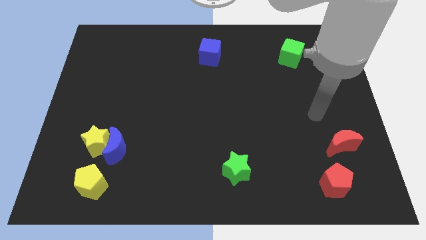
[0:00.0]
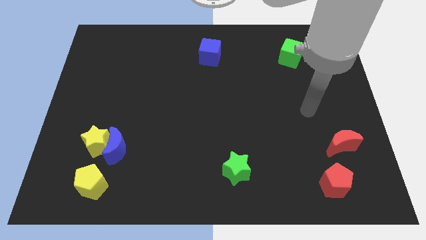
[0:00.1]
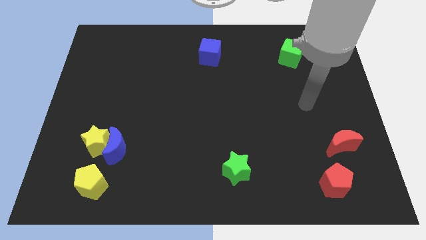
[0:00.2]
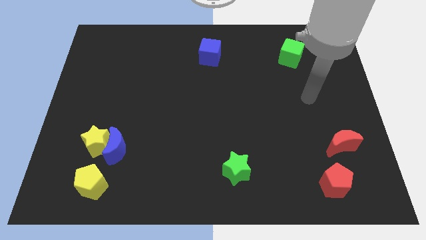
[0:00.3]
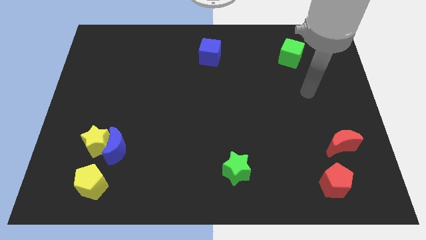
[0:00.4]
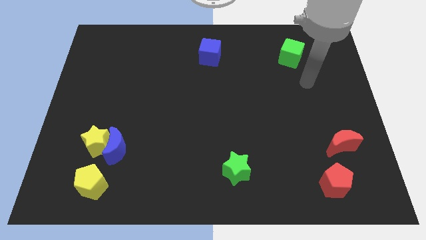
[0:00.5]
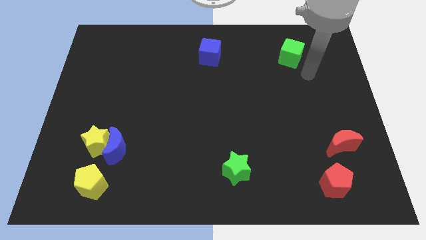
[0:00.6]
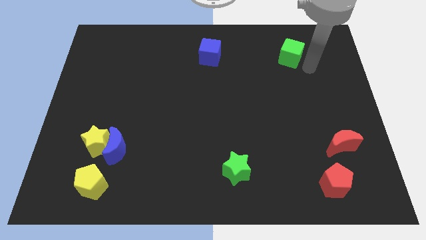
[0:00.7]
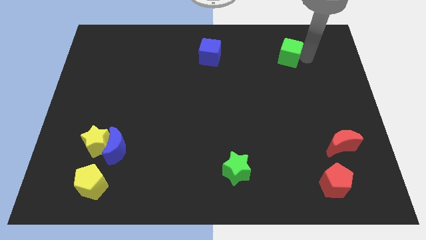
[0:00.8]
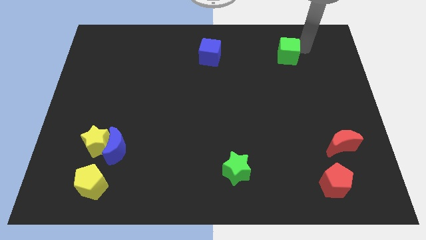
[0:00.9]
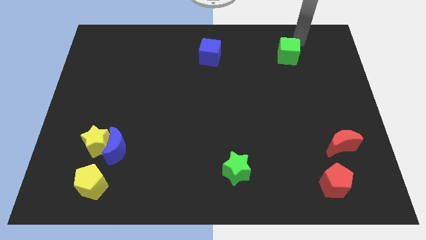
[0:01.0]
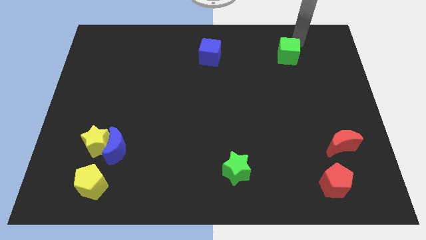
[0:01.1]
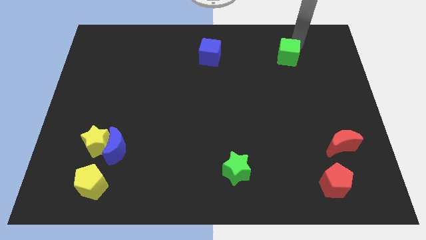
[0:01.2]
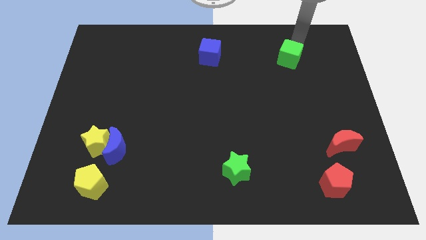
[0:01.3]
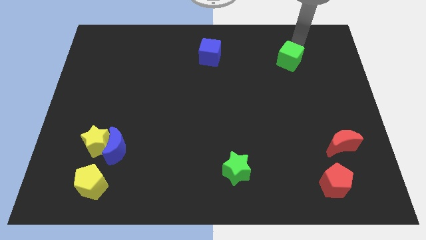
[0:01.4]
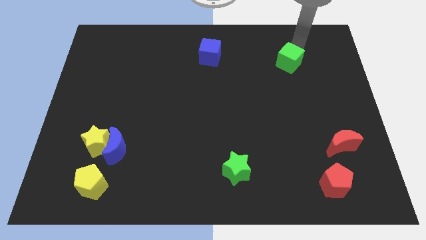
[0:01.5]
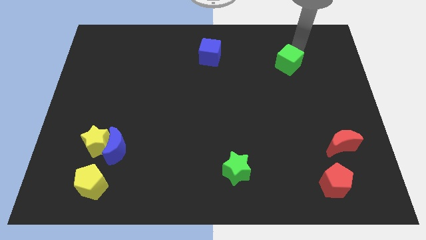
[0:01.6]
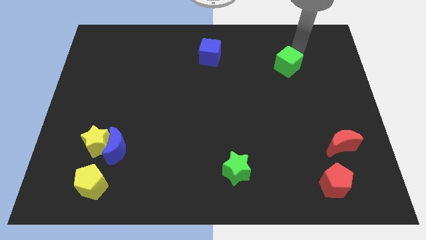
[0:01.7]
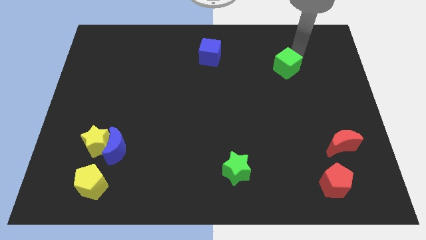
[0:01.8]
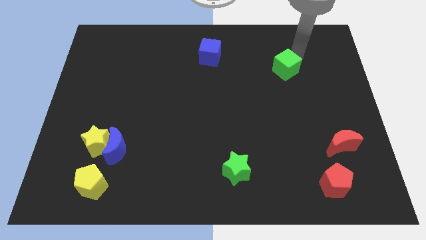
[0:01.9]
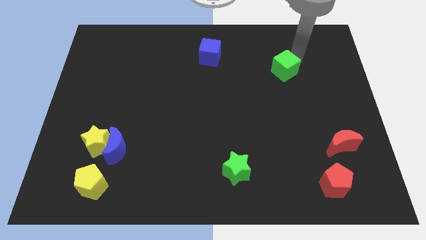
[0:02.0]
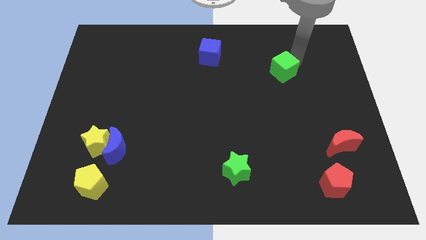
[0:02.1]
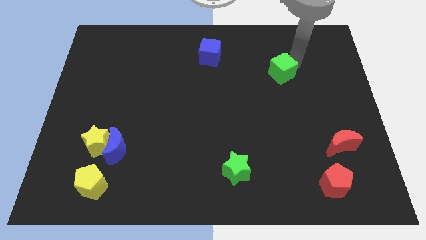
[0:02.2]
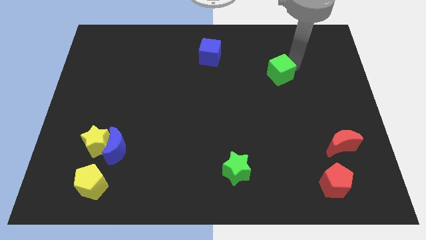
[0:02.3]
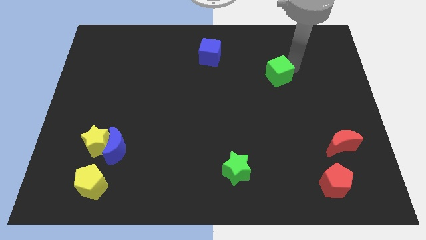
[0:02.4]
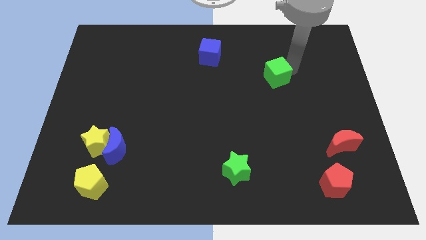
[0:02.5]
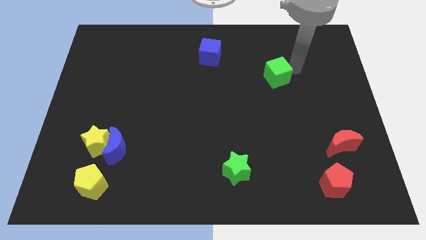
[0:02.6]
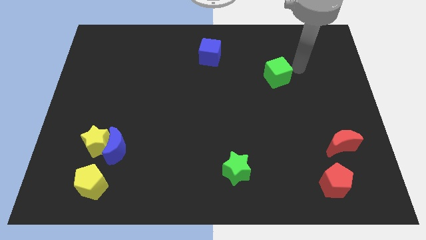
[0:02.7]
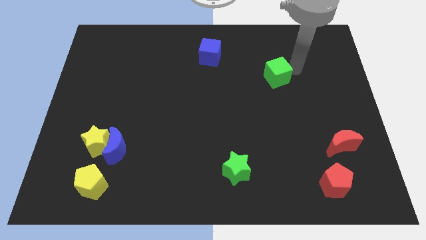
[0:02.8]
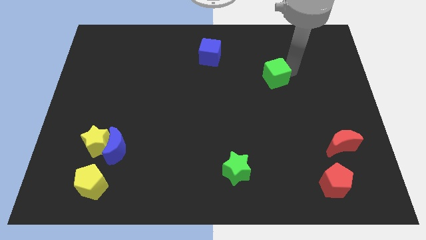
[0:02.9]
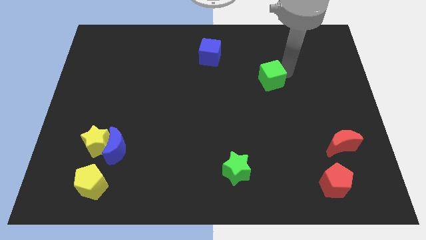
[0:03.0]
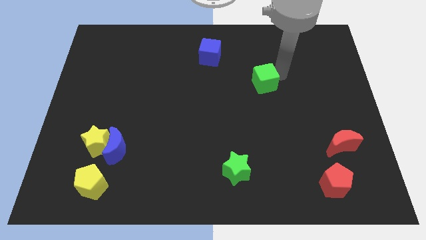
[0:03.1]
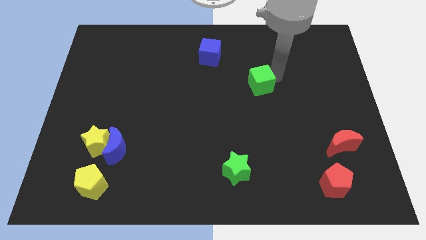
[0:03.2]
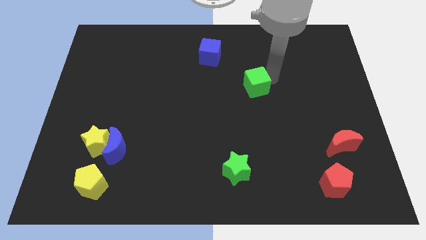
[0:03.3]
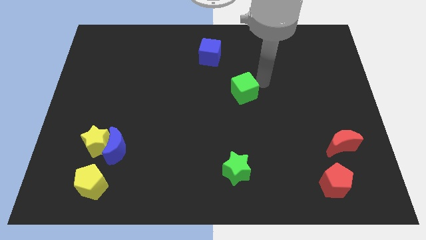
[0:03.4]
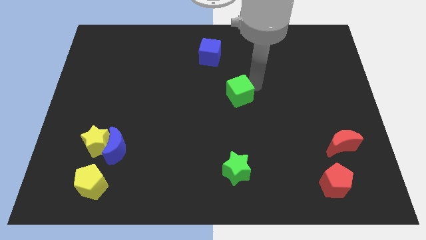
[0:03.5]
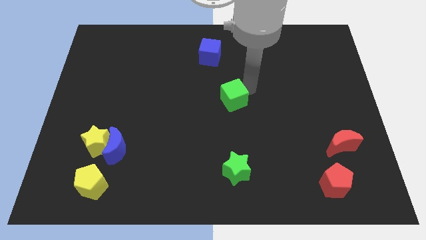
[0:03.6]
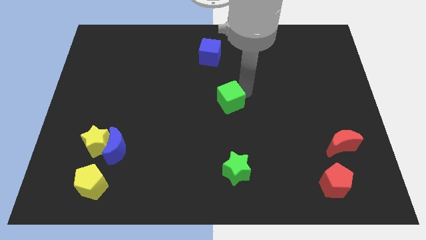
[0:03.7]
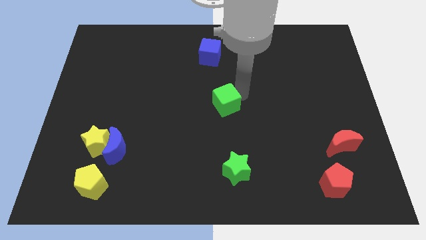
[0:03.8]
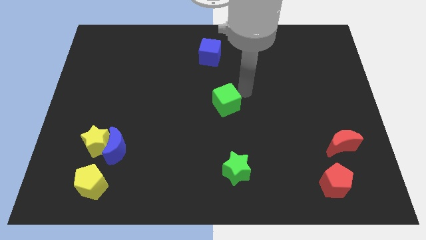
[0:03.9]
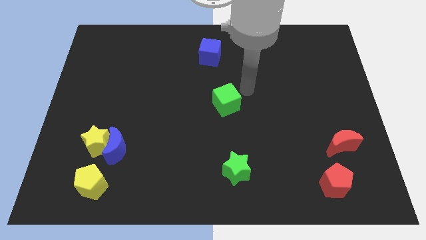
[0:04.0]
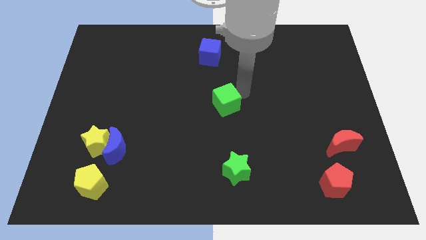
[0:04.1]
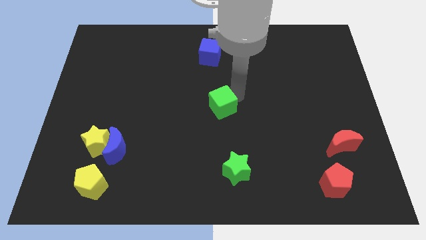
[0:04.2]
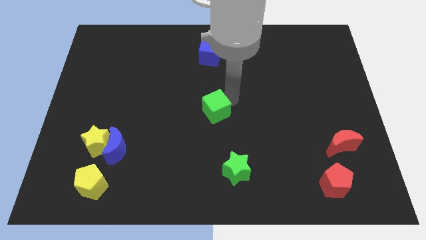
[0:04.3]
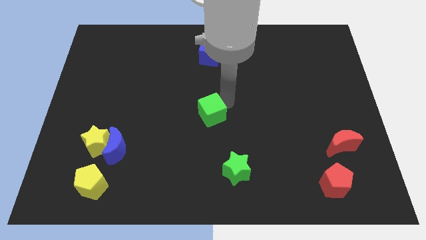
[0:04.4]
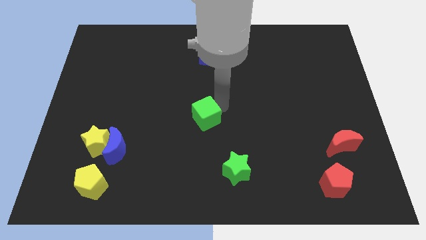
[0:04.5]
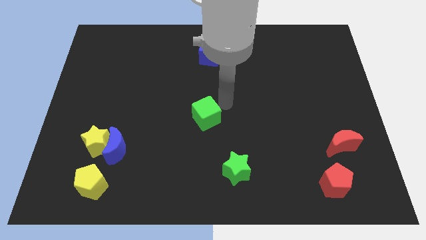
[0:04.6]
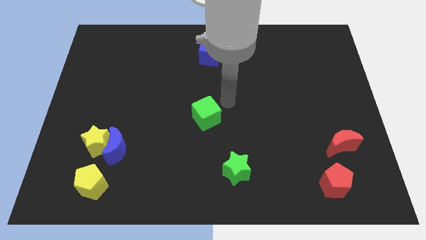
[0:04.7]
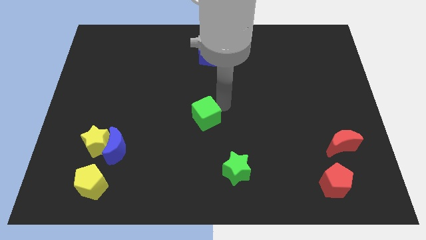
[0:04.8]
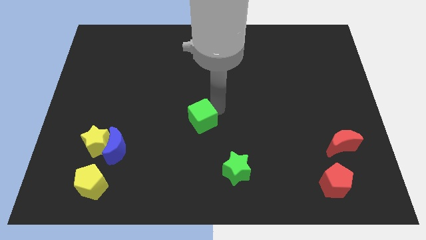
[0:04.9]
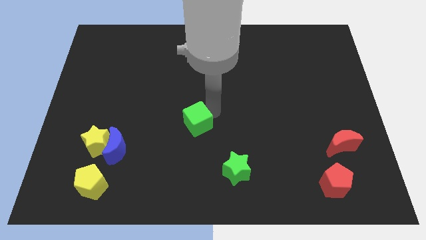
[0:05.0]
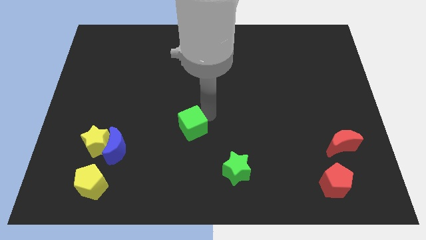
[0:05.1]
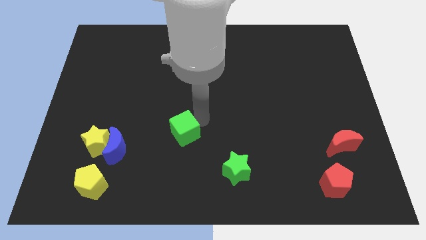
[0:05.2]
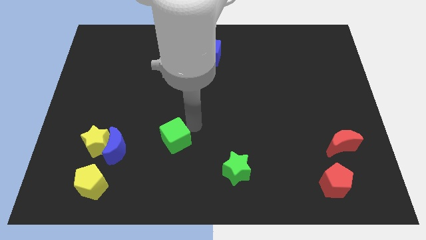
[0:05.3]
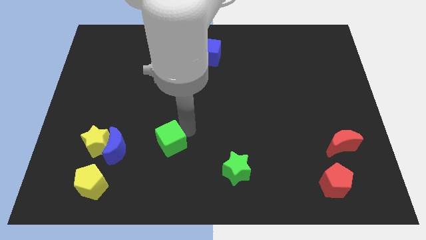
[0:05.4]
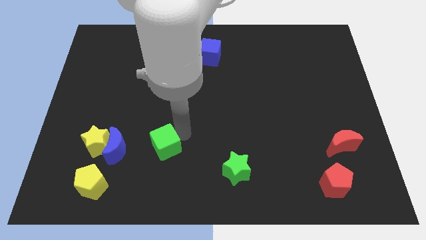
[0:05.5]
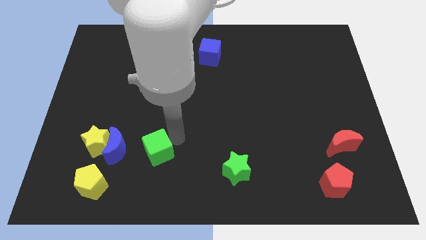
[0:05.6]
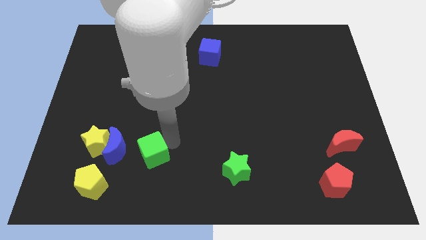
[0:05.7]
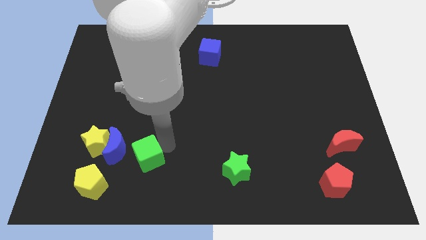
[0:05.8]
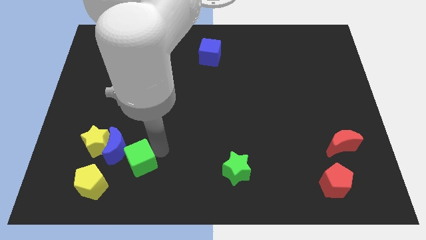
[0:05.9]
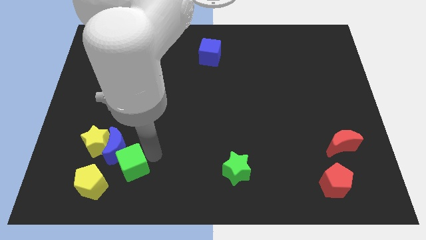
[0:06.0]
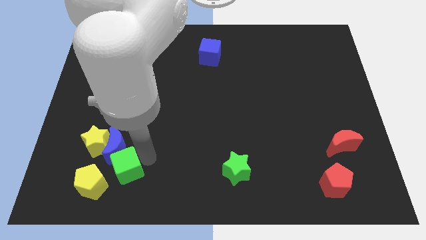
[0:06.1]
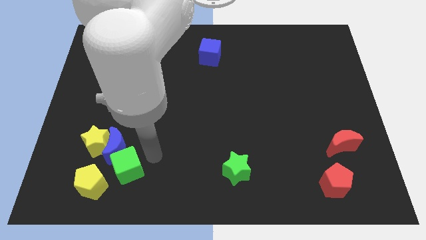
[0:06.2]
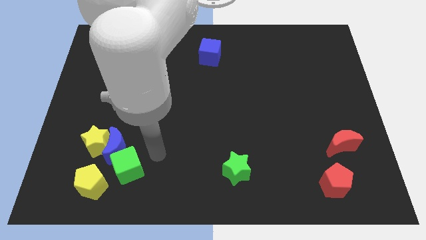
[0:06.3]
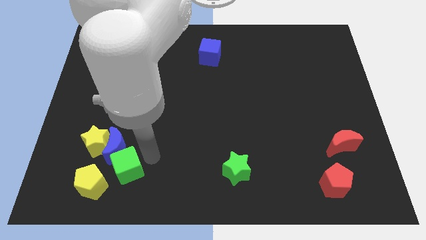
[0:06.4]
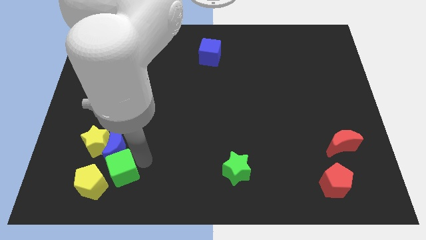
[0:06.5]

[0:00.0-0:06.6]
slide the green cube next to the yellow pentagon

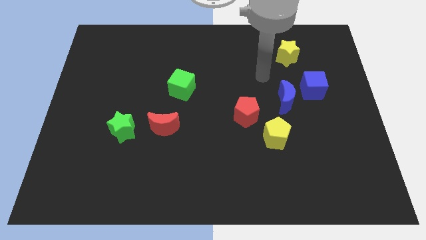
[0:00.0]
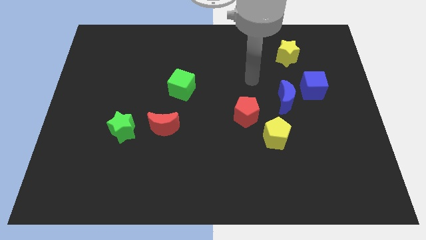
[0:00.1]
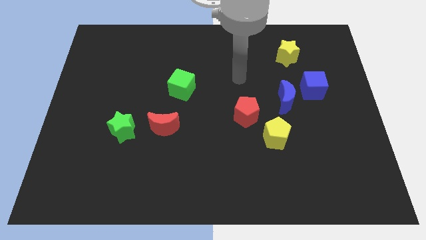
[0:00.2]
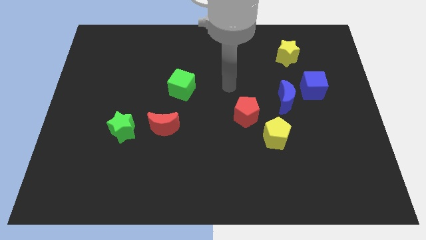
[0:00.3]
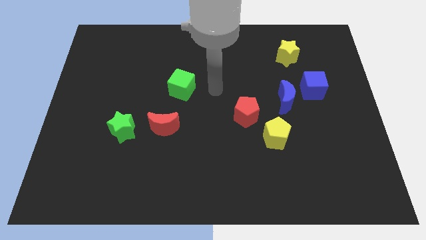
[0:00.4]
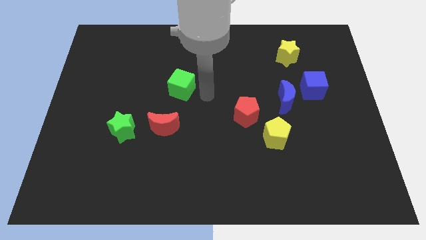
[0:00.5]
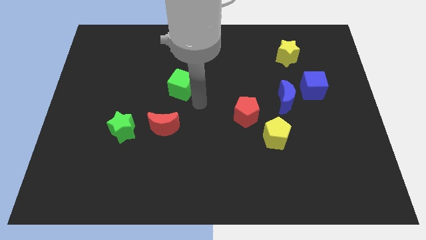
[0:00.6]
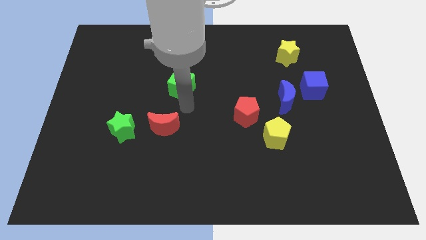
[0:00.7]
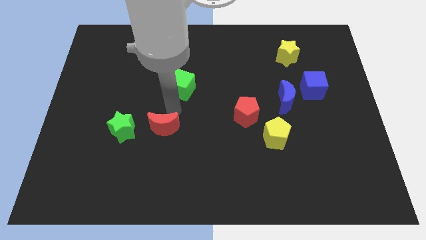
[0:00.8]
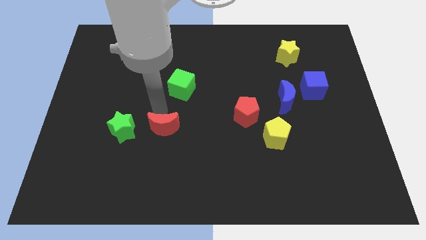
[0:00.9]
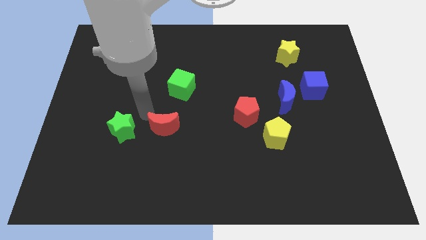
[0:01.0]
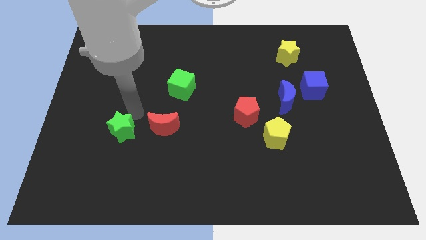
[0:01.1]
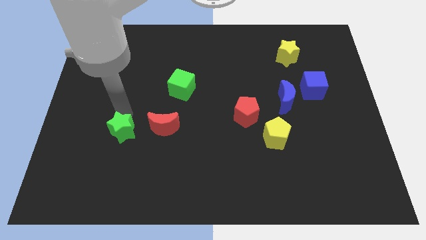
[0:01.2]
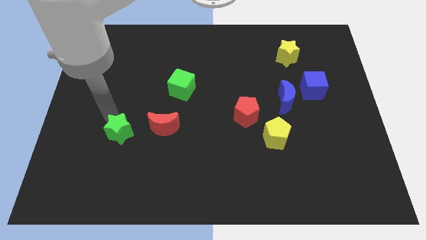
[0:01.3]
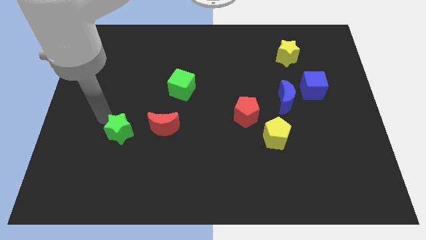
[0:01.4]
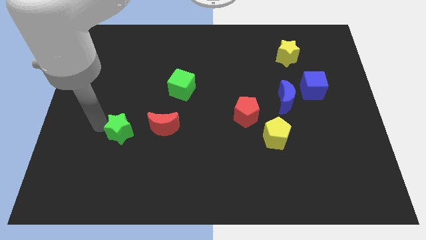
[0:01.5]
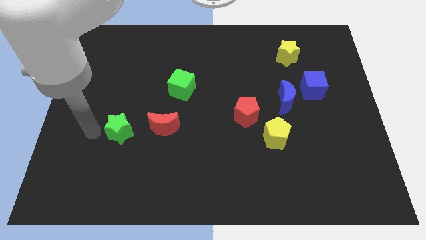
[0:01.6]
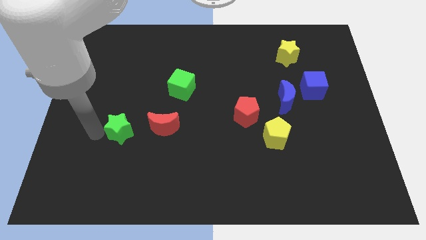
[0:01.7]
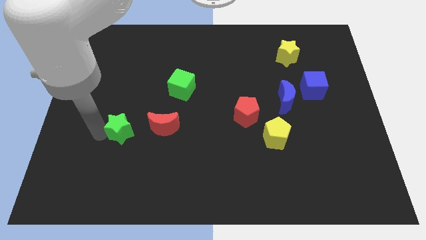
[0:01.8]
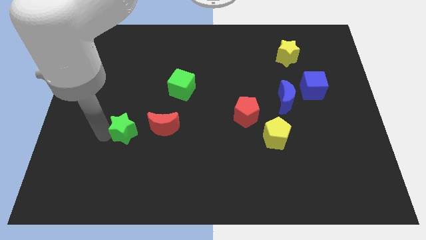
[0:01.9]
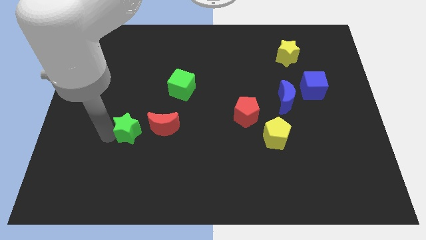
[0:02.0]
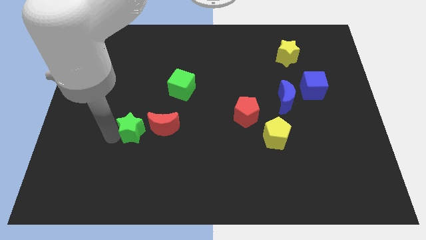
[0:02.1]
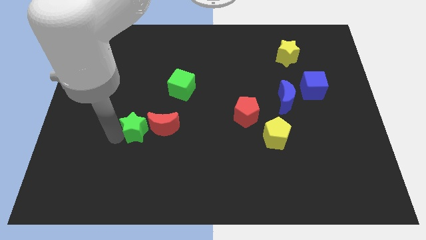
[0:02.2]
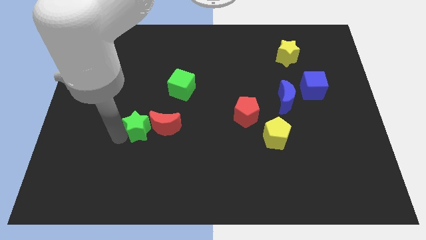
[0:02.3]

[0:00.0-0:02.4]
slide the green star towards the red moon
